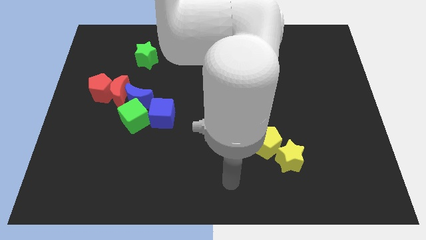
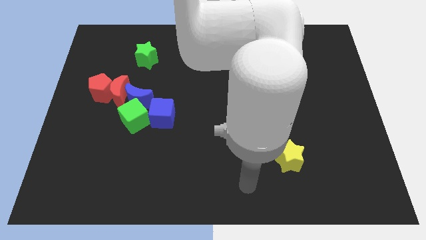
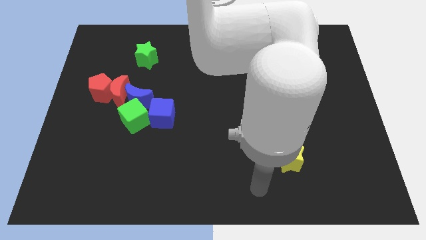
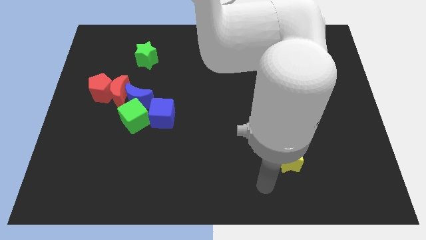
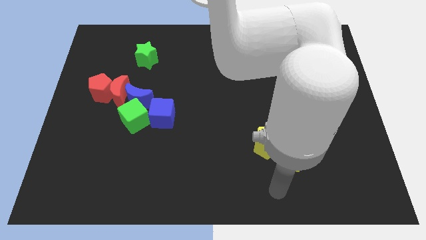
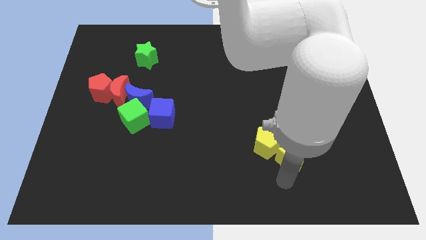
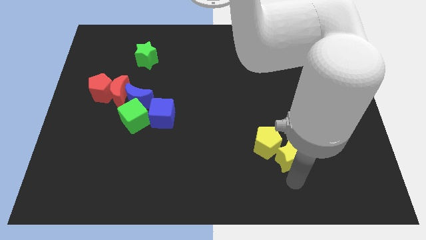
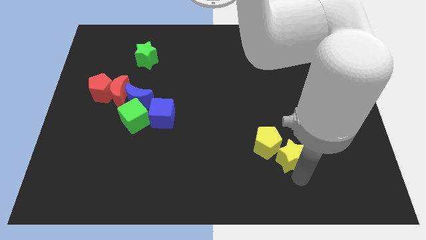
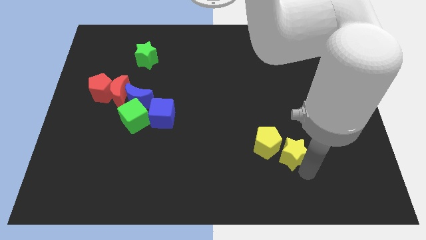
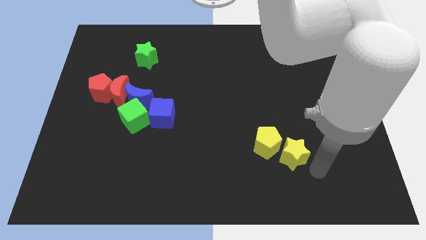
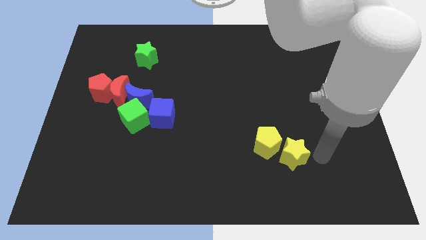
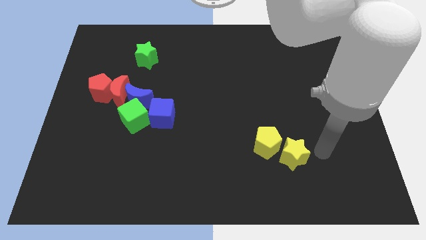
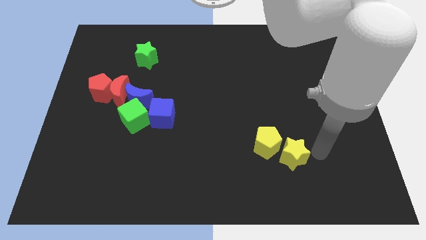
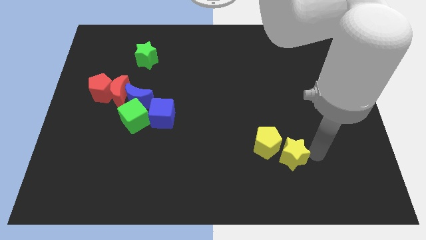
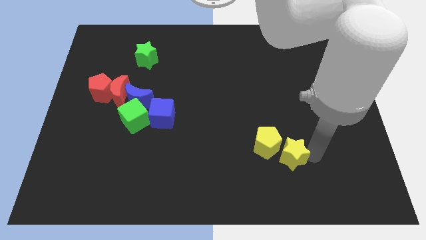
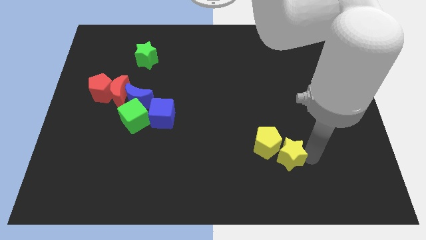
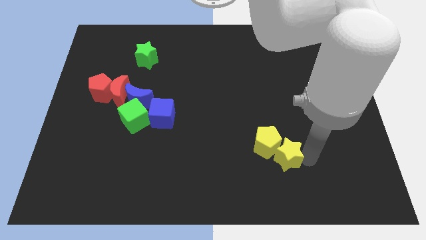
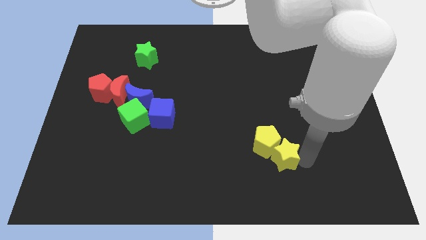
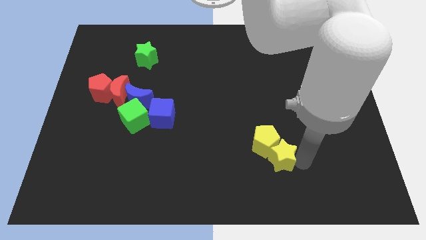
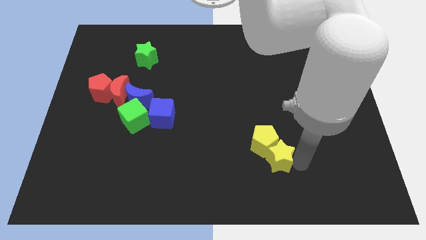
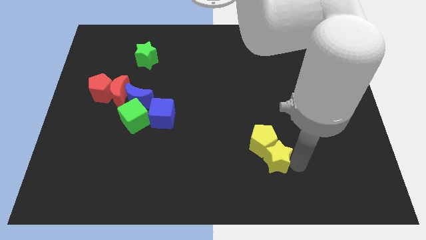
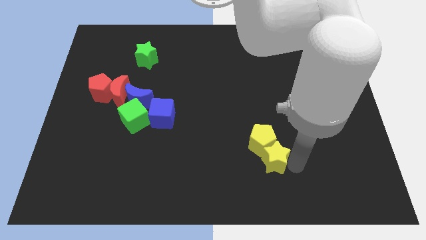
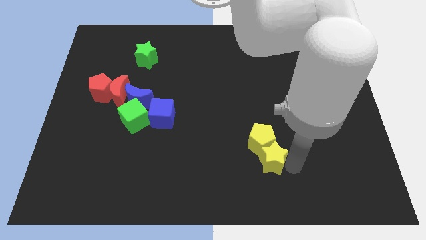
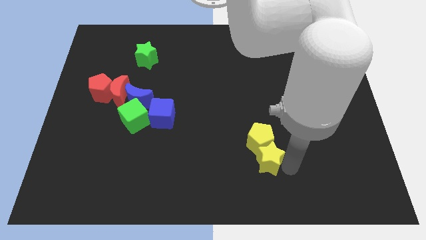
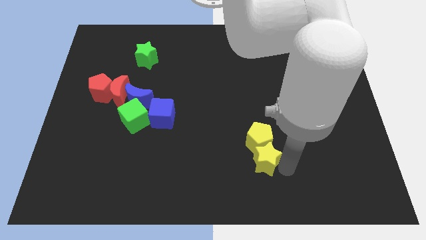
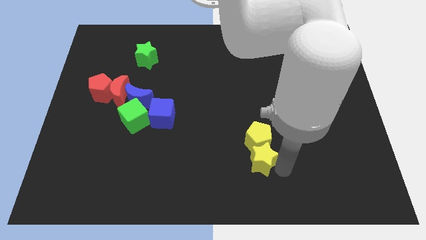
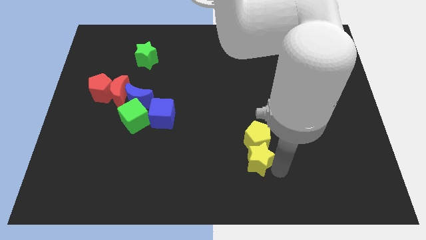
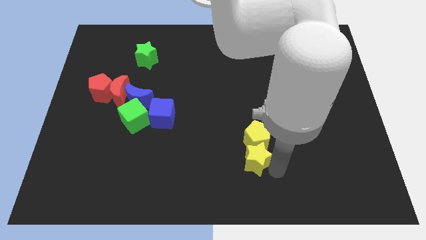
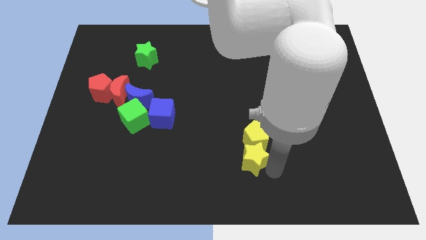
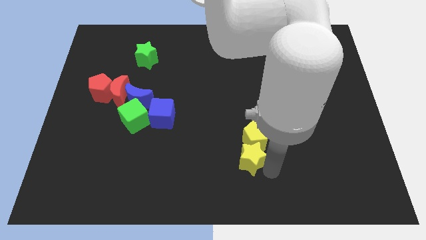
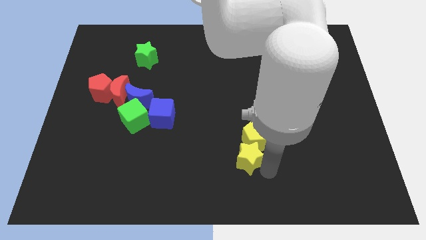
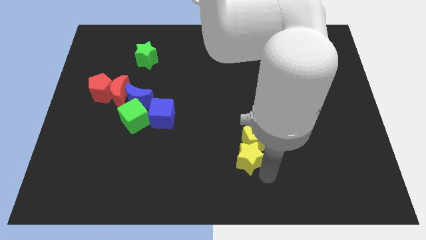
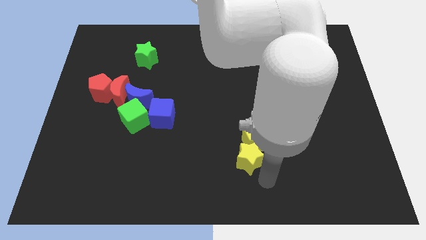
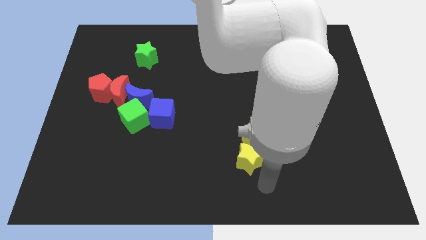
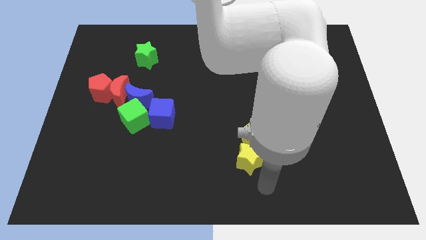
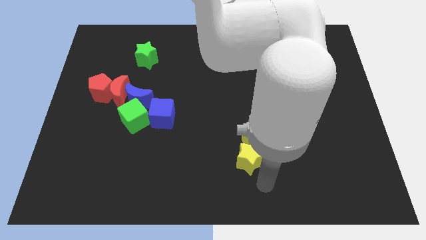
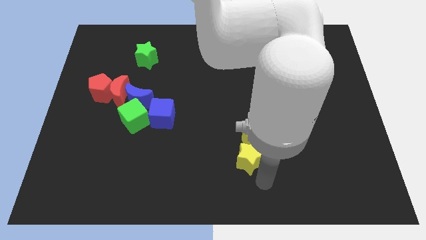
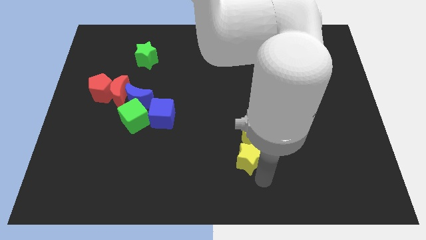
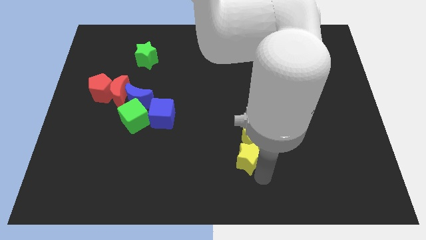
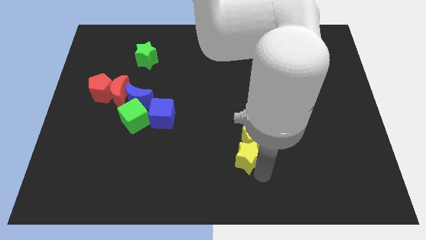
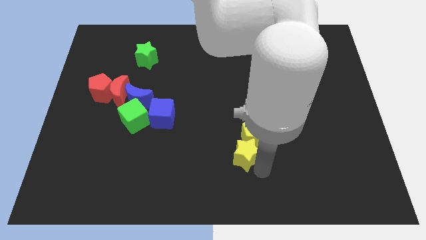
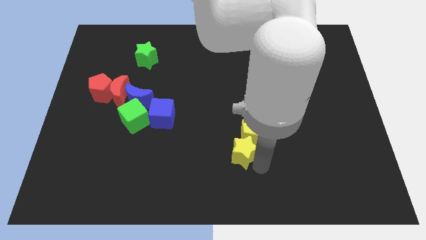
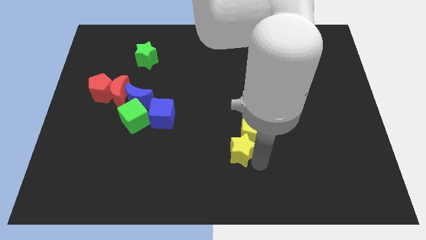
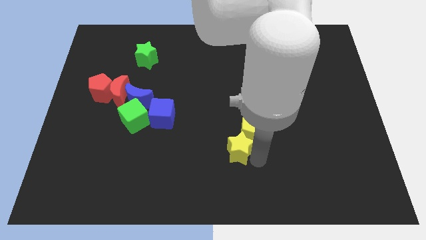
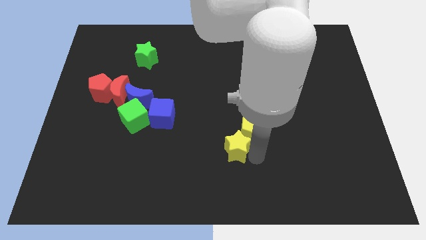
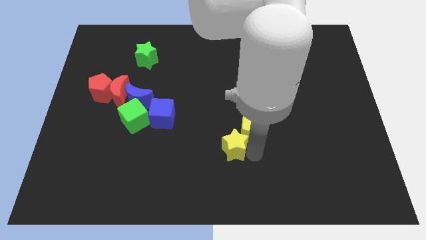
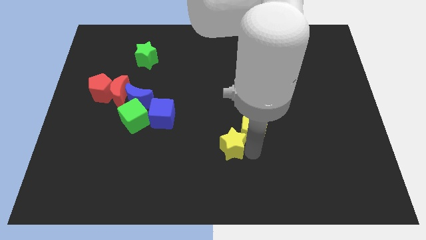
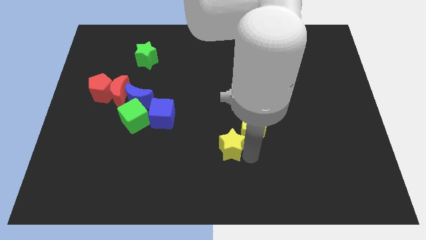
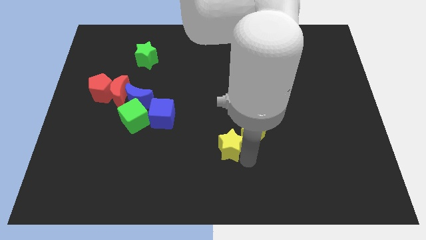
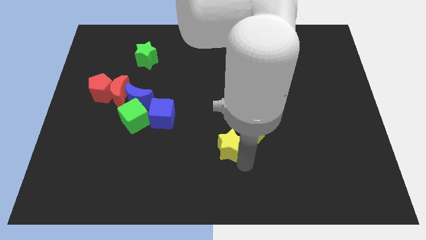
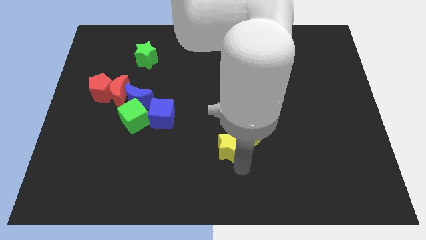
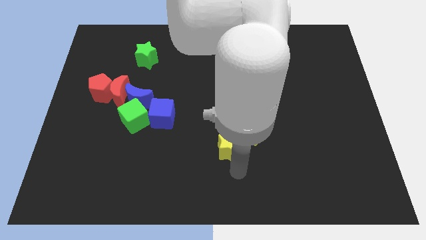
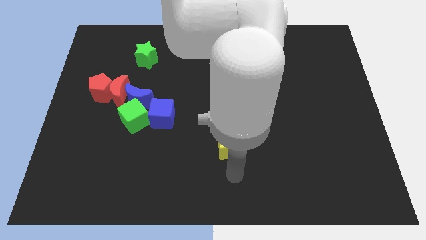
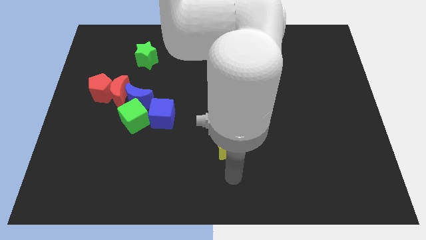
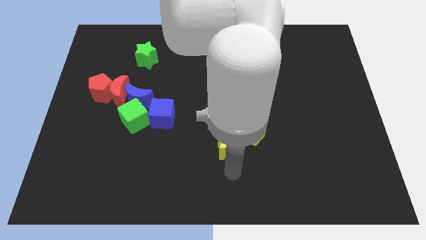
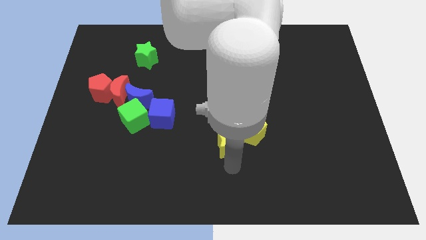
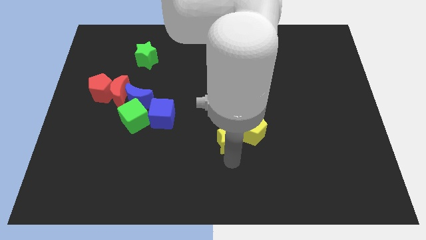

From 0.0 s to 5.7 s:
push the yellow star to the center of the board

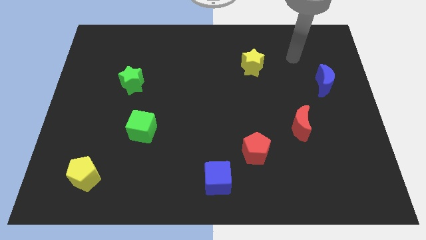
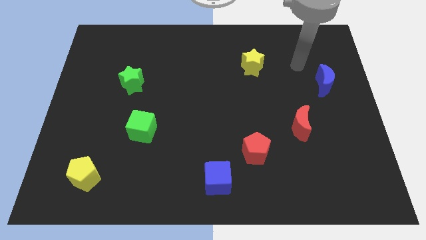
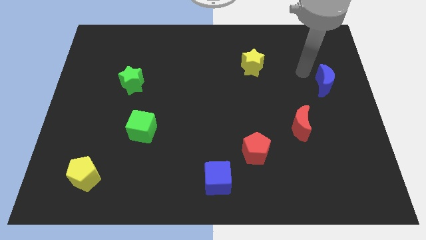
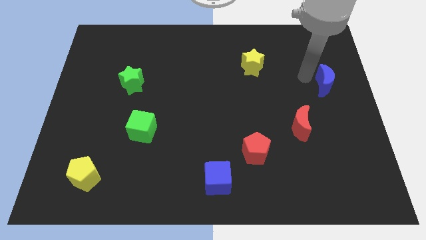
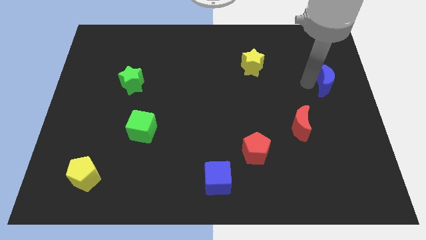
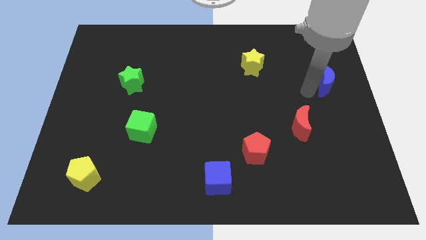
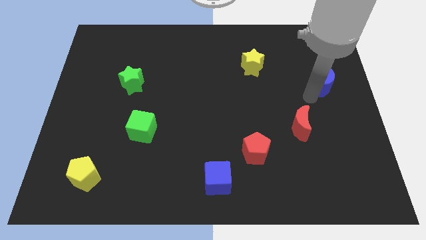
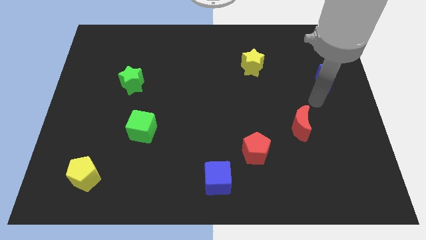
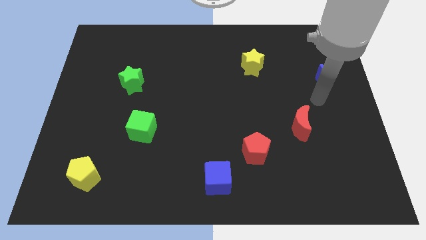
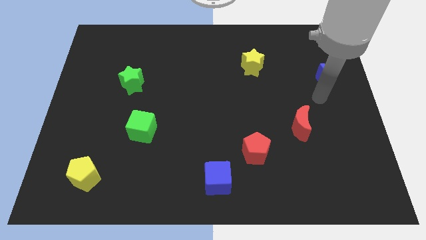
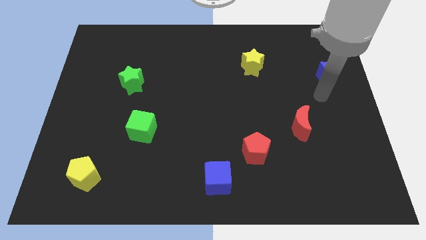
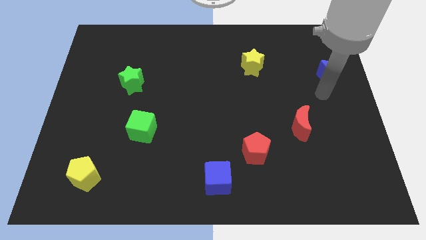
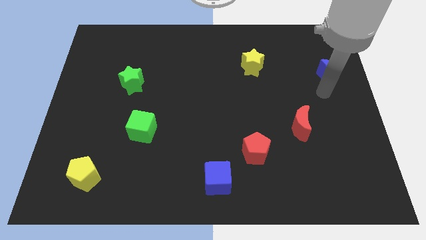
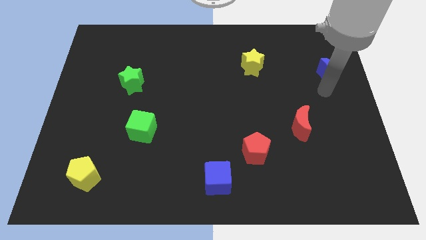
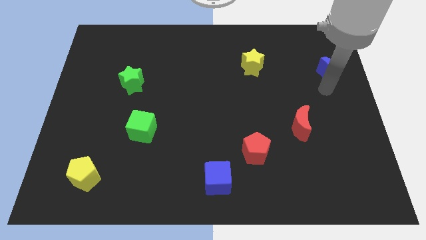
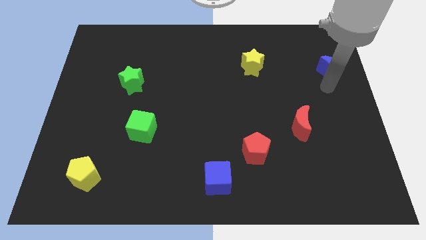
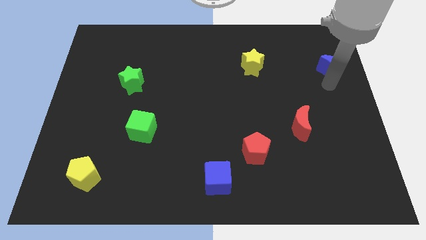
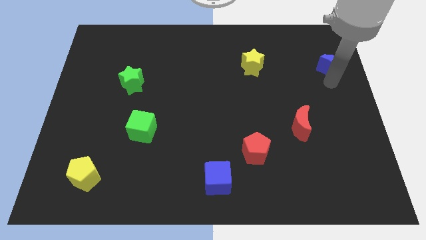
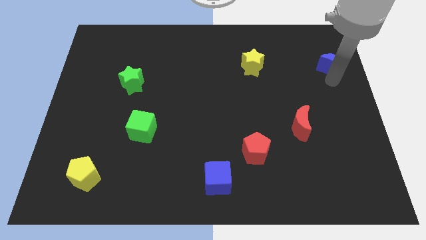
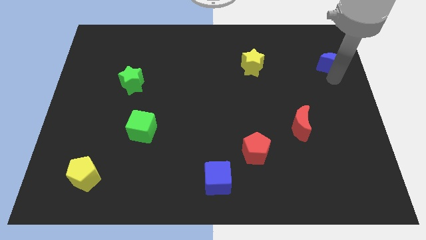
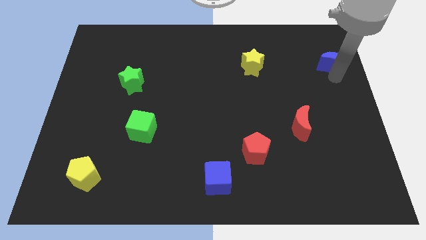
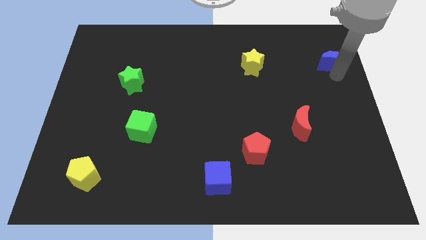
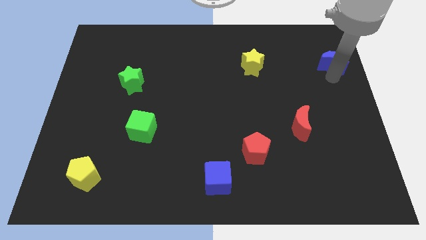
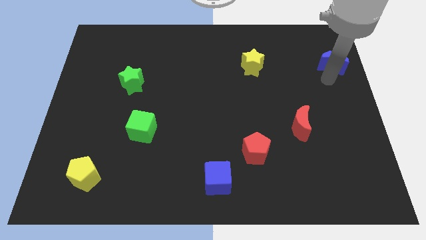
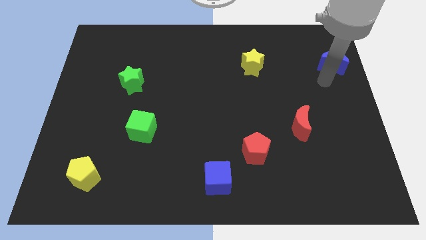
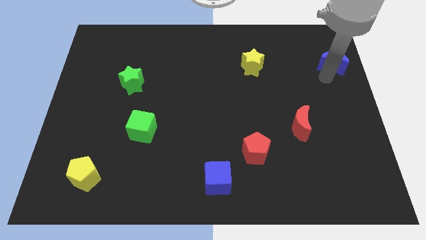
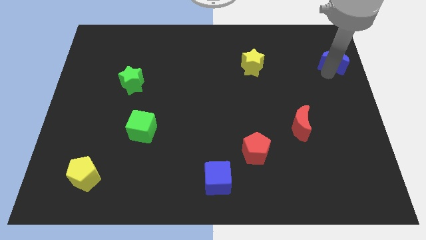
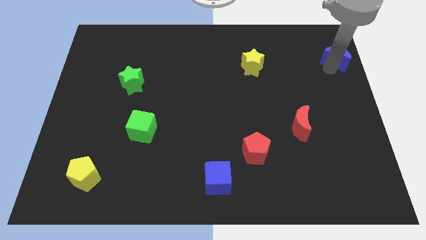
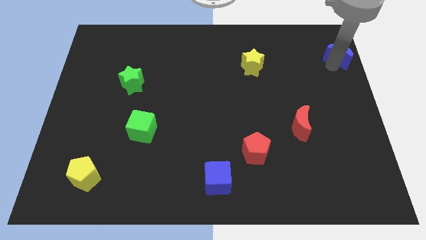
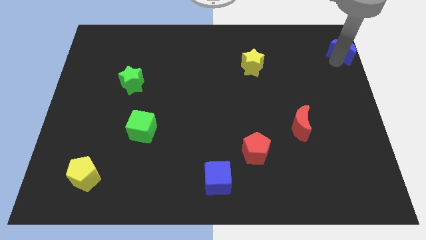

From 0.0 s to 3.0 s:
move the blue moon to the upper right corner
